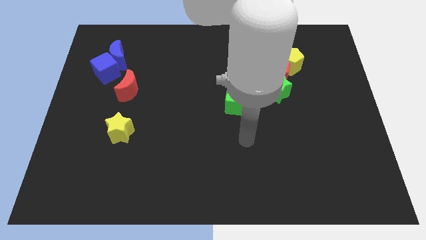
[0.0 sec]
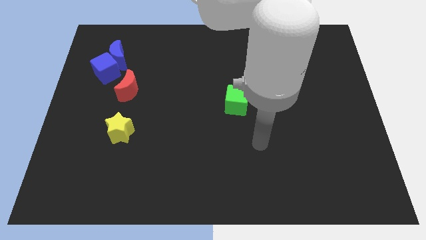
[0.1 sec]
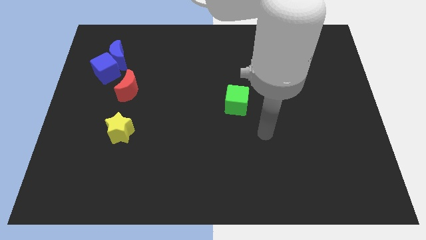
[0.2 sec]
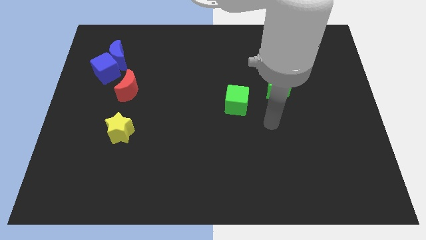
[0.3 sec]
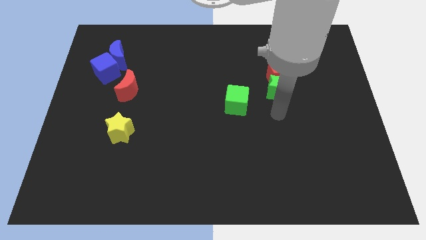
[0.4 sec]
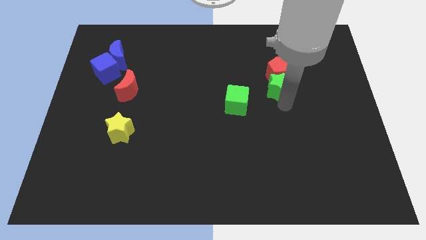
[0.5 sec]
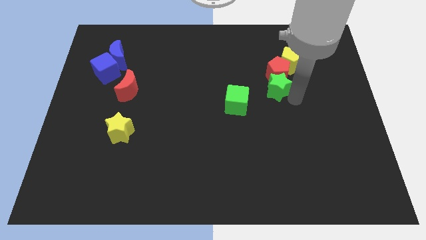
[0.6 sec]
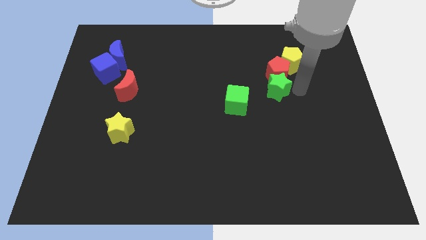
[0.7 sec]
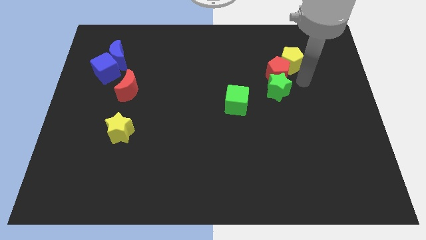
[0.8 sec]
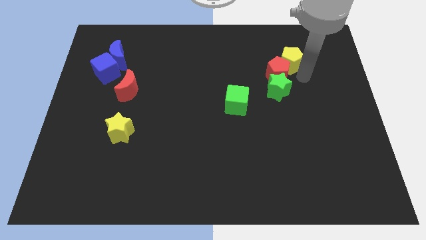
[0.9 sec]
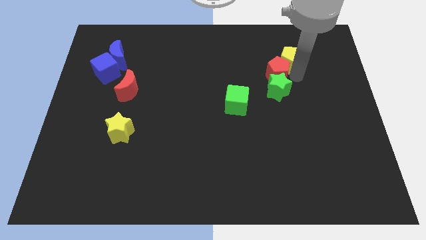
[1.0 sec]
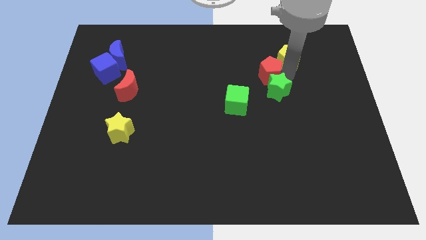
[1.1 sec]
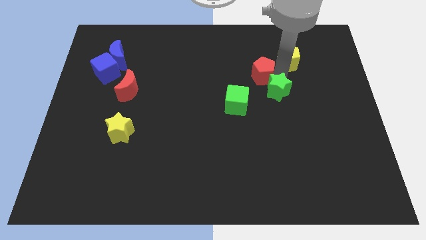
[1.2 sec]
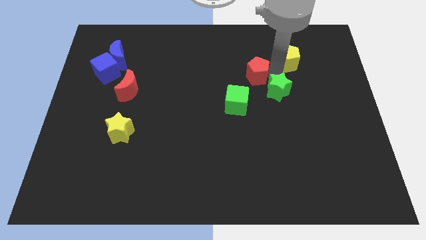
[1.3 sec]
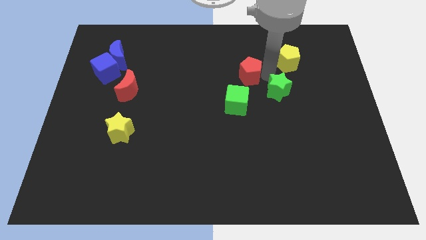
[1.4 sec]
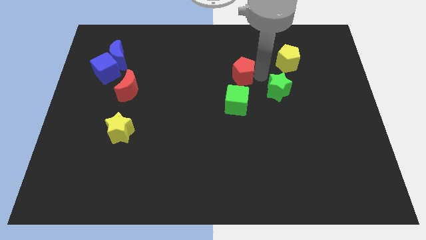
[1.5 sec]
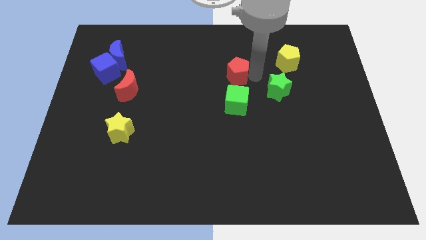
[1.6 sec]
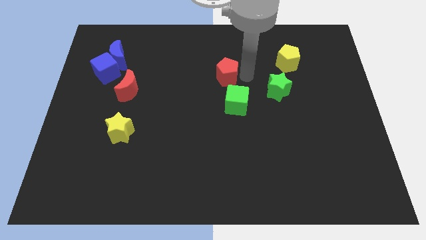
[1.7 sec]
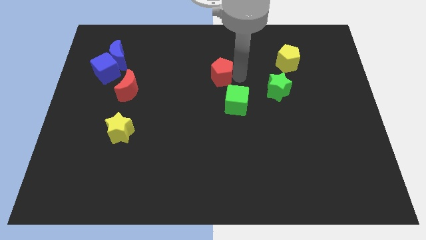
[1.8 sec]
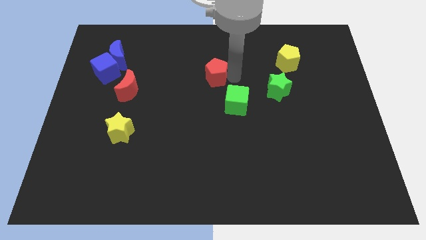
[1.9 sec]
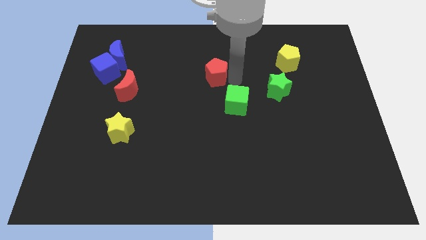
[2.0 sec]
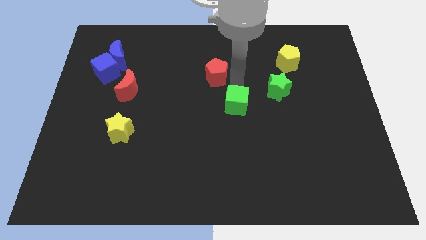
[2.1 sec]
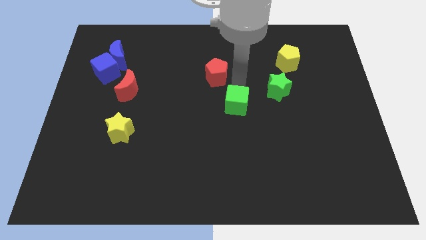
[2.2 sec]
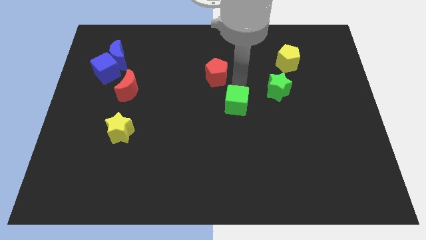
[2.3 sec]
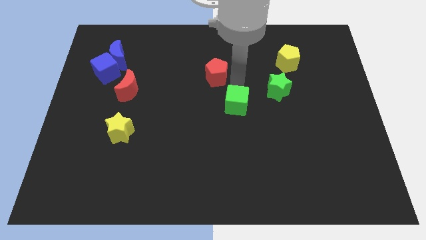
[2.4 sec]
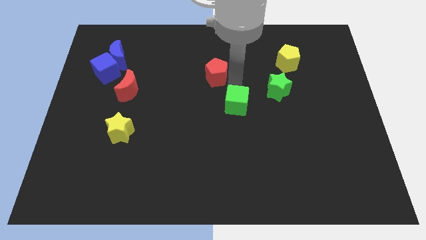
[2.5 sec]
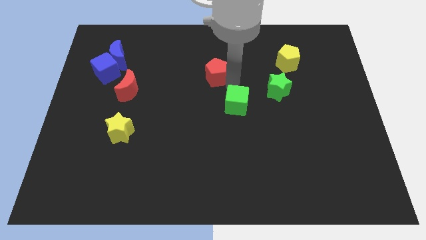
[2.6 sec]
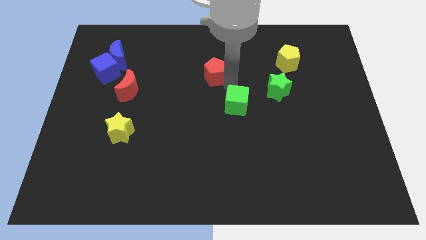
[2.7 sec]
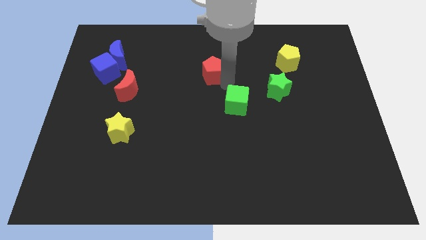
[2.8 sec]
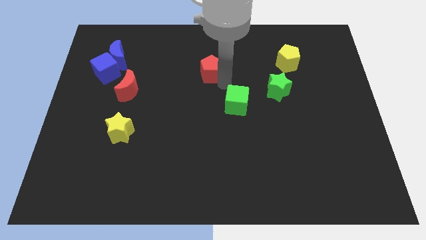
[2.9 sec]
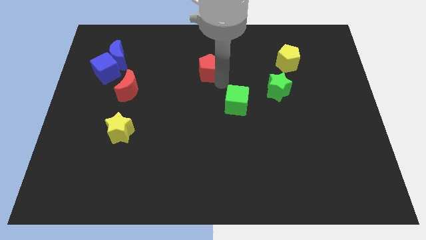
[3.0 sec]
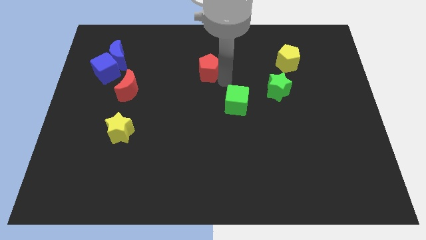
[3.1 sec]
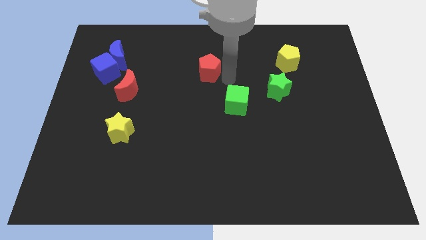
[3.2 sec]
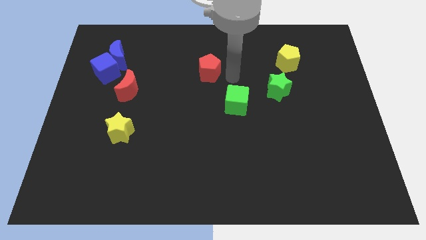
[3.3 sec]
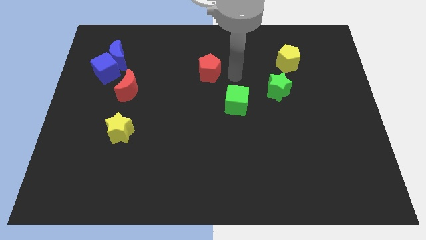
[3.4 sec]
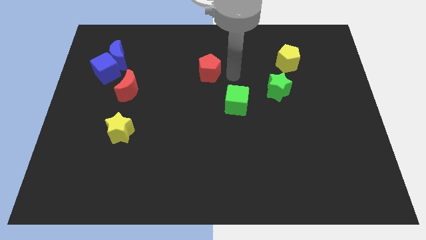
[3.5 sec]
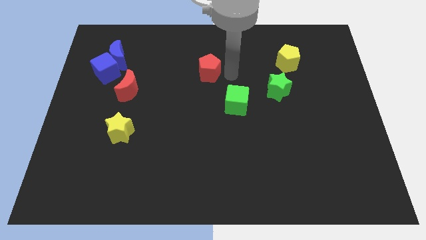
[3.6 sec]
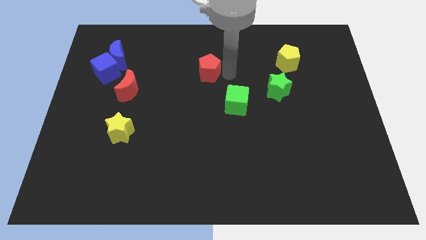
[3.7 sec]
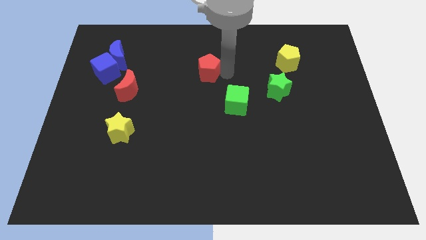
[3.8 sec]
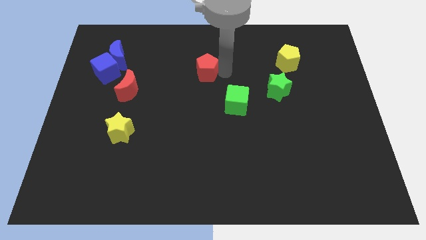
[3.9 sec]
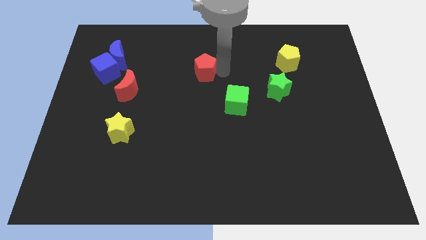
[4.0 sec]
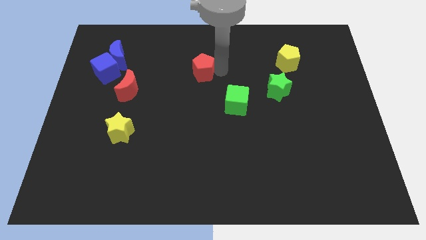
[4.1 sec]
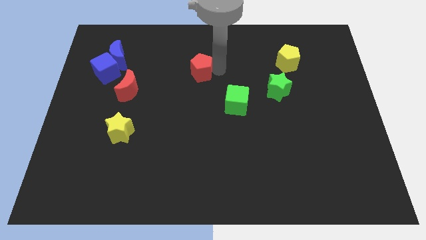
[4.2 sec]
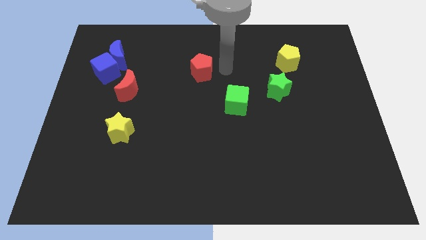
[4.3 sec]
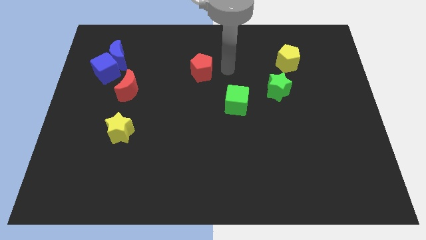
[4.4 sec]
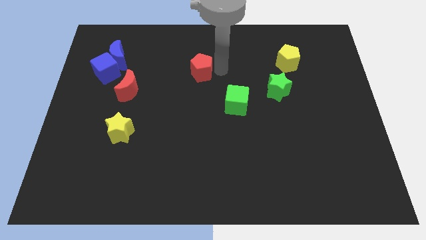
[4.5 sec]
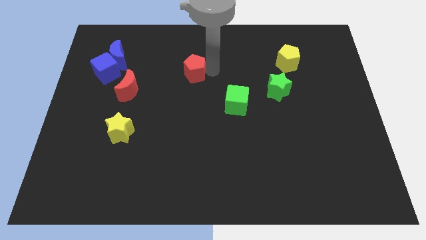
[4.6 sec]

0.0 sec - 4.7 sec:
slide the red pentagon to the left

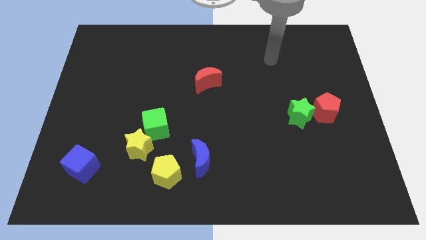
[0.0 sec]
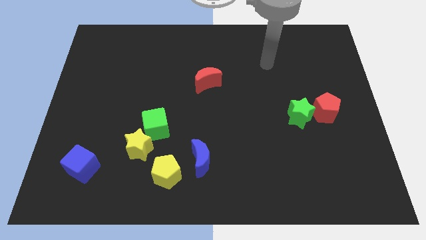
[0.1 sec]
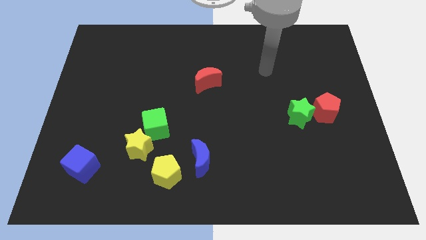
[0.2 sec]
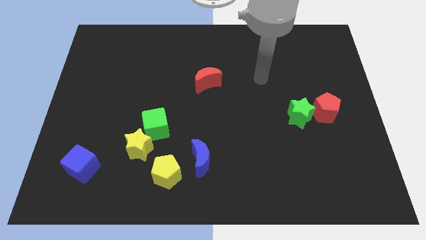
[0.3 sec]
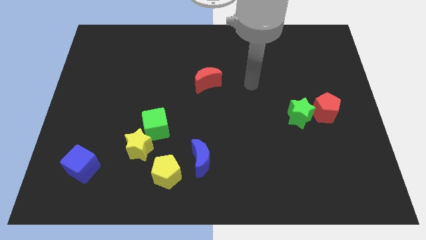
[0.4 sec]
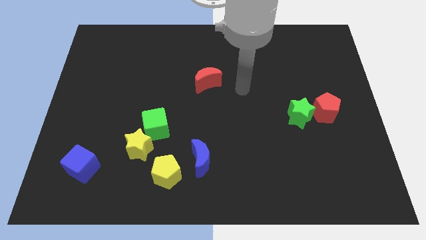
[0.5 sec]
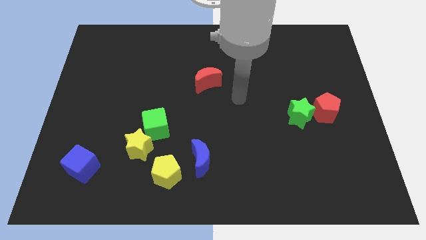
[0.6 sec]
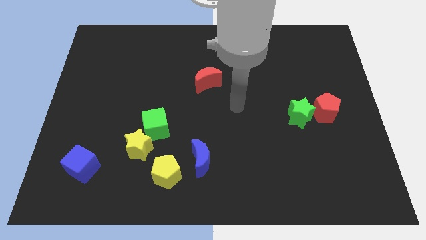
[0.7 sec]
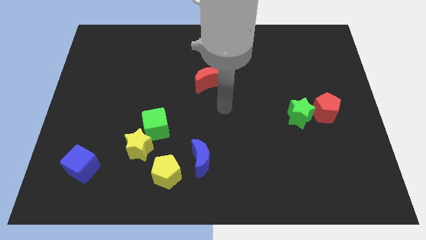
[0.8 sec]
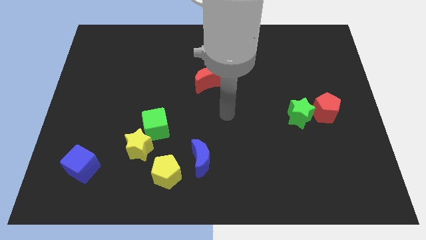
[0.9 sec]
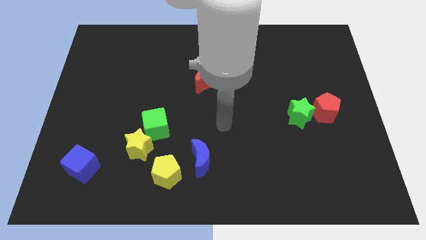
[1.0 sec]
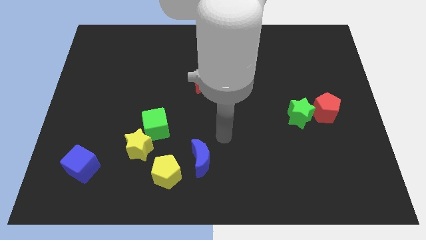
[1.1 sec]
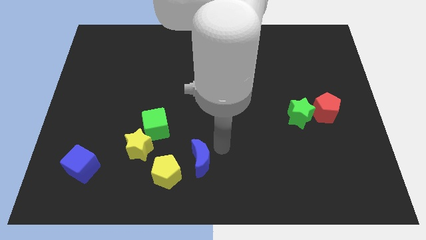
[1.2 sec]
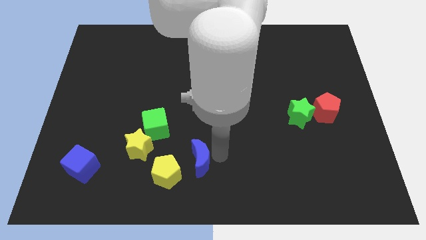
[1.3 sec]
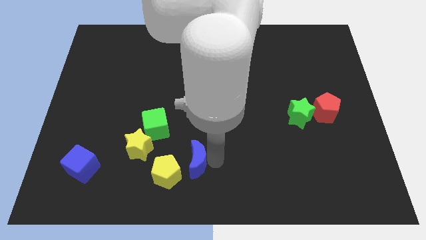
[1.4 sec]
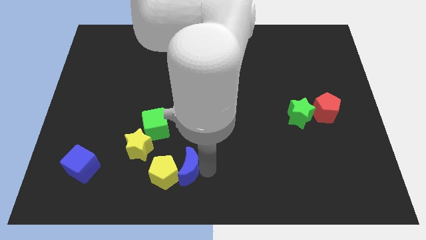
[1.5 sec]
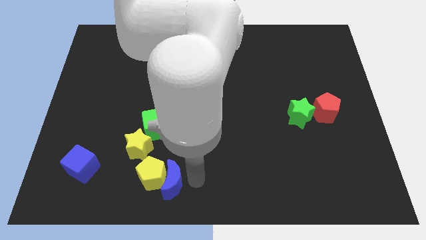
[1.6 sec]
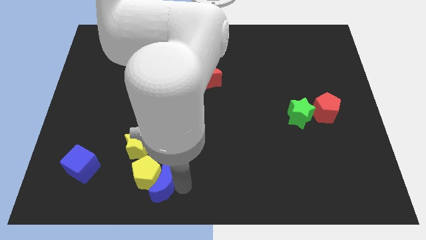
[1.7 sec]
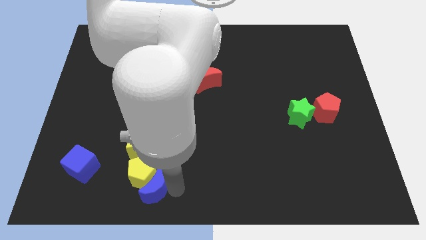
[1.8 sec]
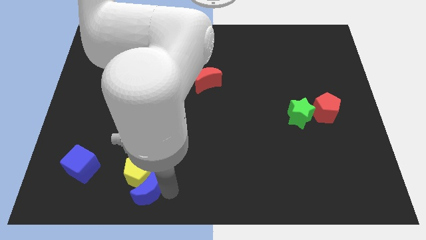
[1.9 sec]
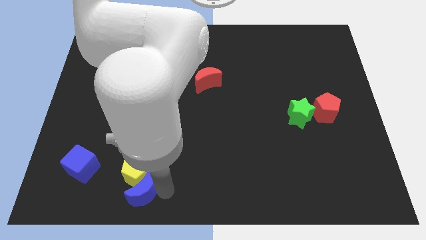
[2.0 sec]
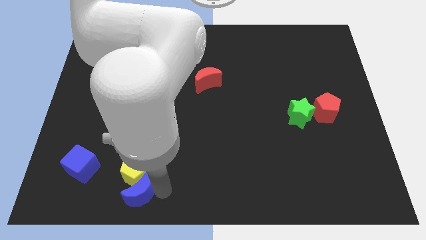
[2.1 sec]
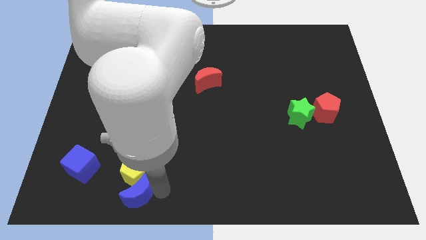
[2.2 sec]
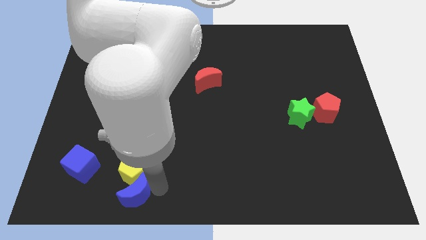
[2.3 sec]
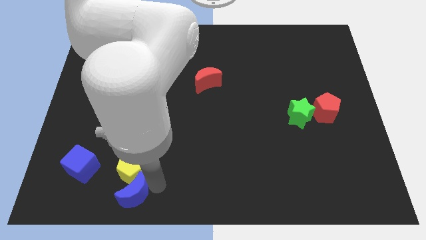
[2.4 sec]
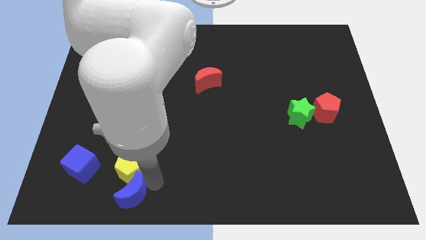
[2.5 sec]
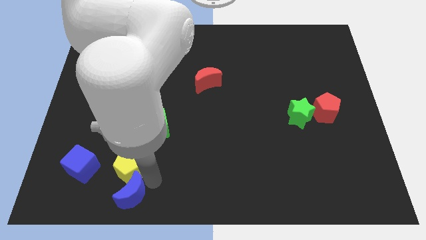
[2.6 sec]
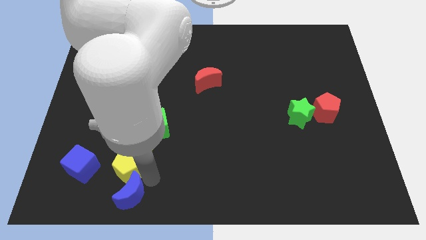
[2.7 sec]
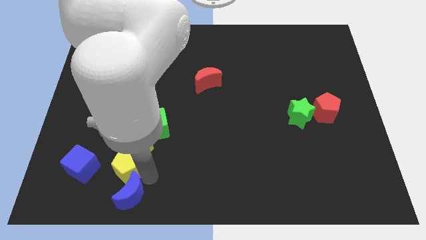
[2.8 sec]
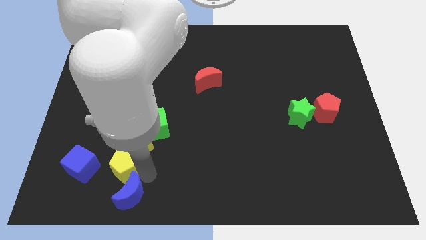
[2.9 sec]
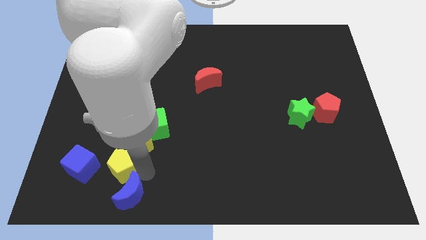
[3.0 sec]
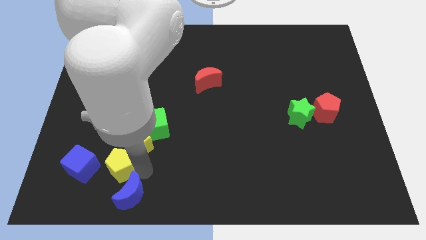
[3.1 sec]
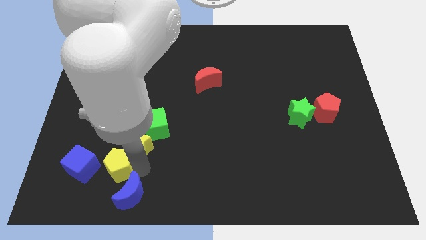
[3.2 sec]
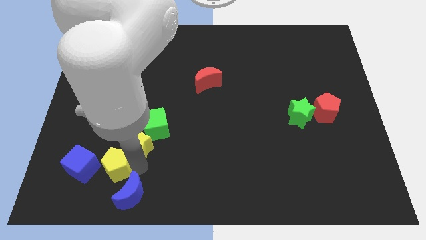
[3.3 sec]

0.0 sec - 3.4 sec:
move the yellow pentagon a bit diagonally up and to the left

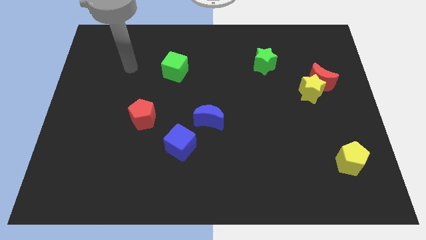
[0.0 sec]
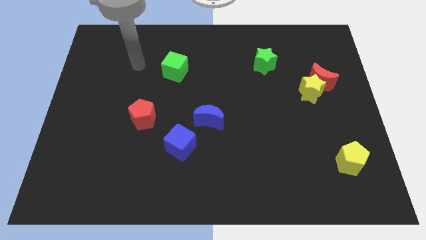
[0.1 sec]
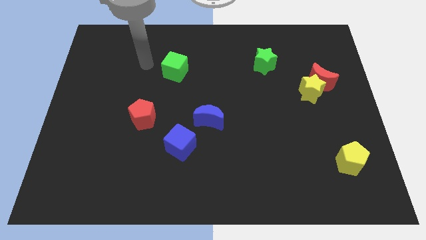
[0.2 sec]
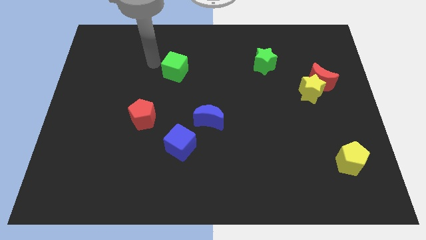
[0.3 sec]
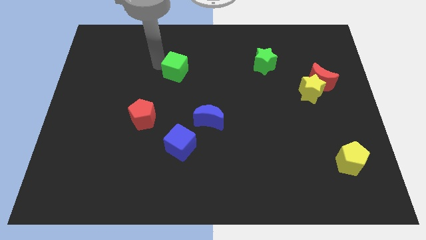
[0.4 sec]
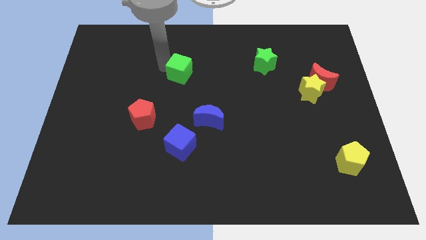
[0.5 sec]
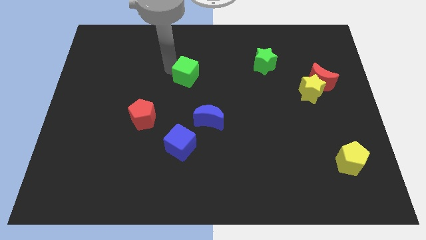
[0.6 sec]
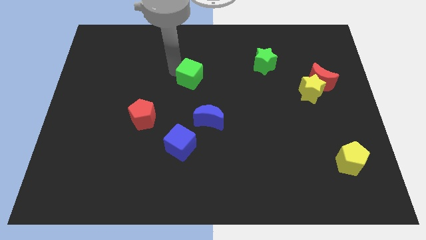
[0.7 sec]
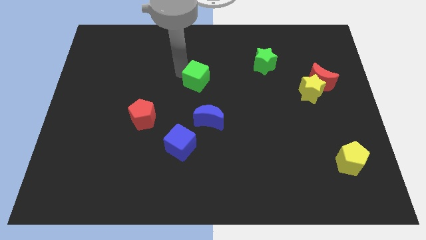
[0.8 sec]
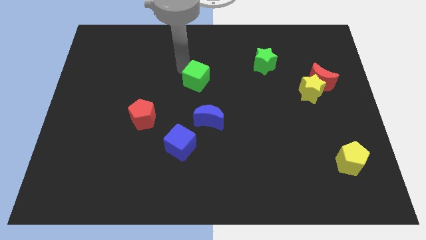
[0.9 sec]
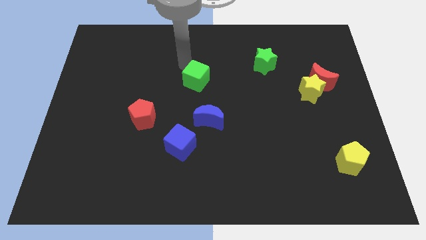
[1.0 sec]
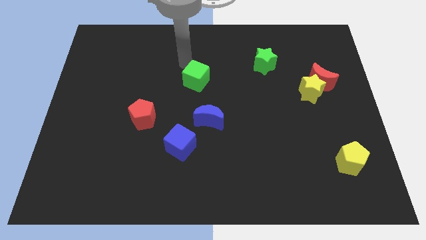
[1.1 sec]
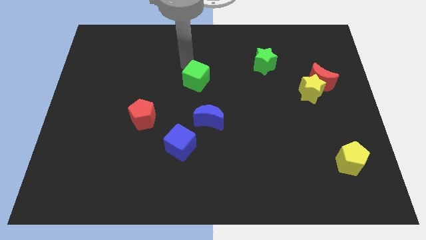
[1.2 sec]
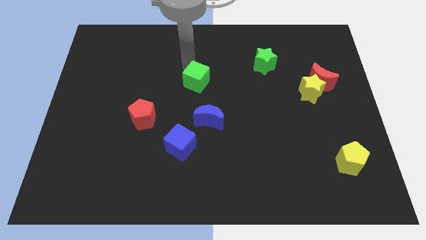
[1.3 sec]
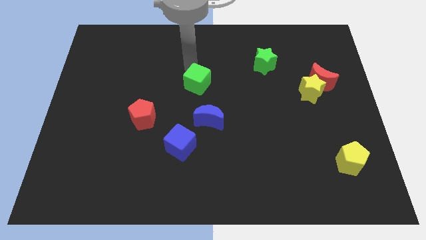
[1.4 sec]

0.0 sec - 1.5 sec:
move the green cube down and right a bit
